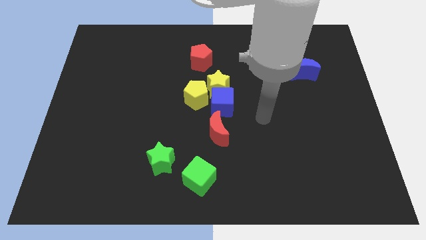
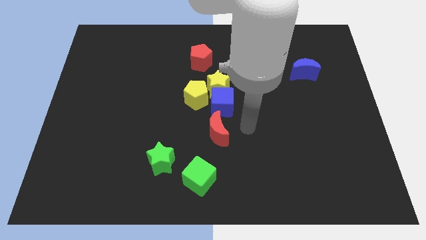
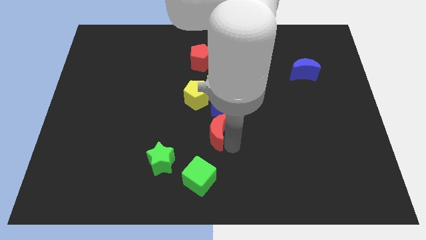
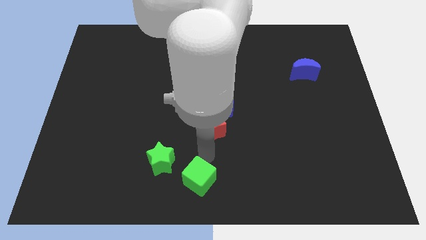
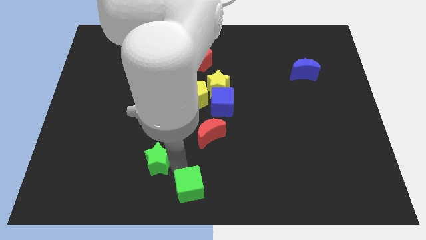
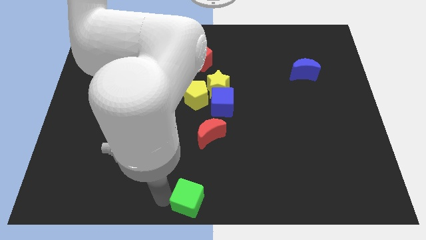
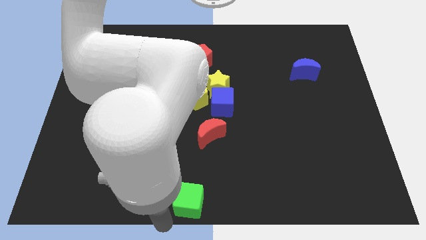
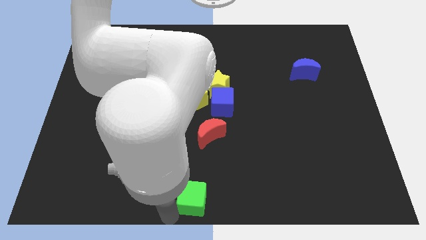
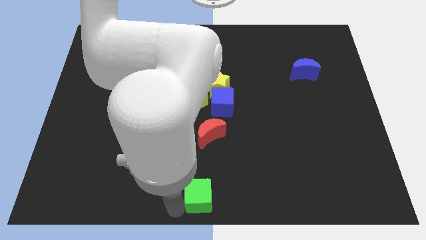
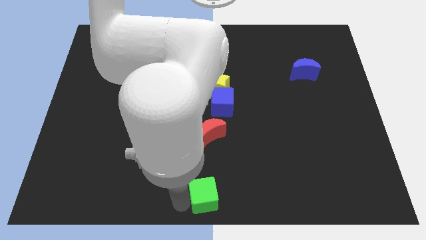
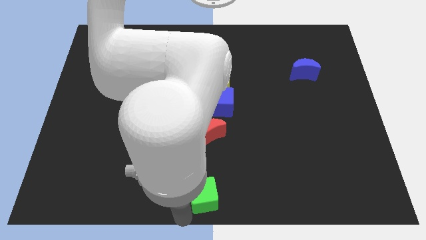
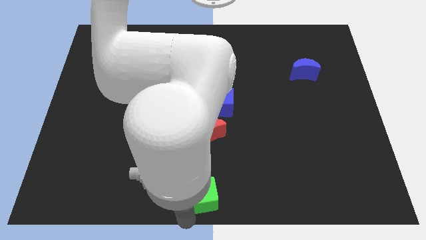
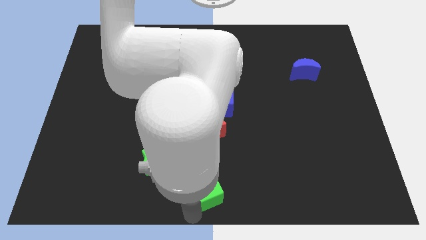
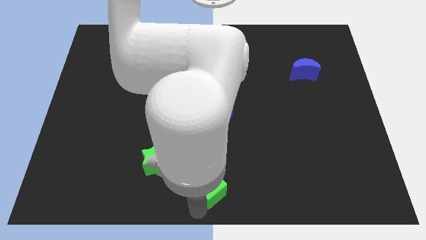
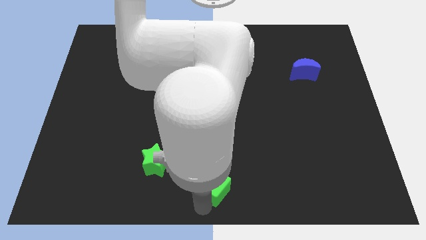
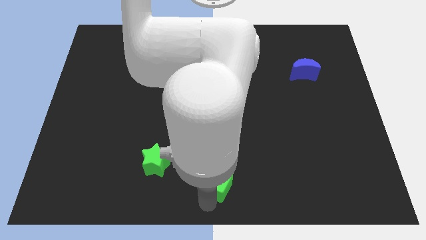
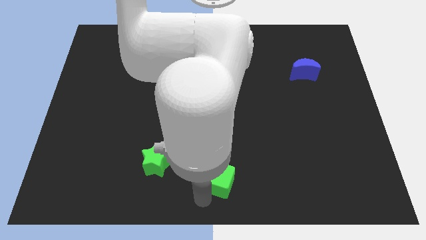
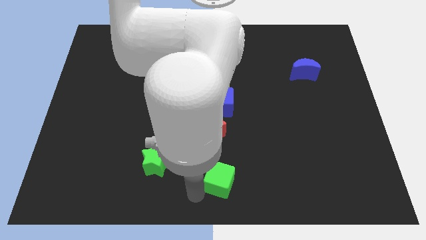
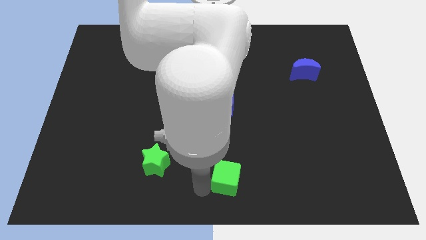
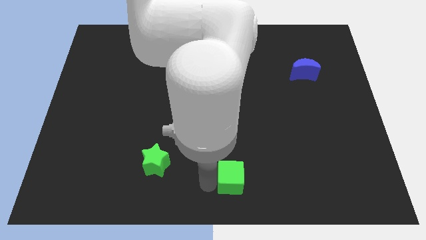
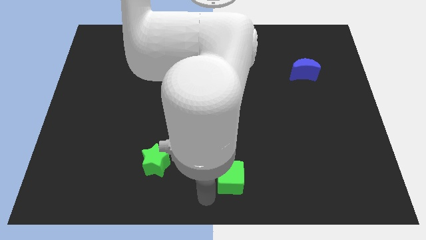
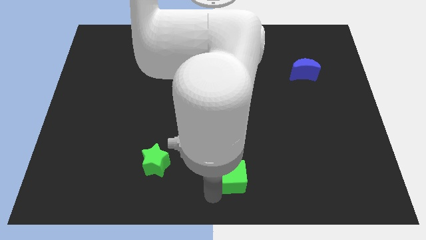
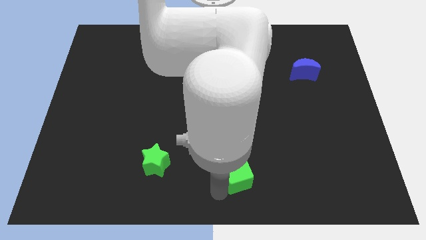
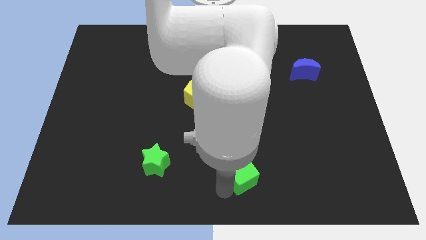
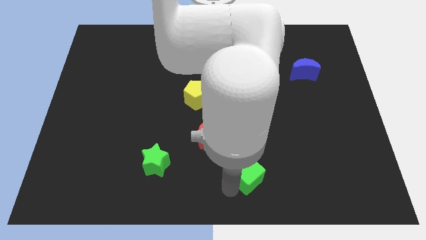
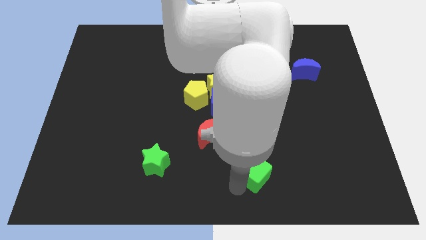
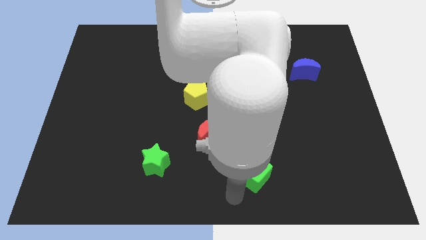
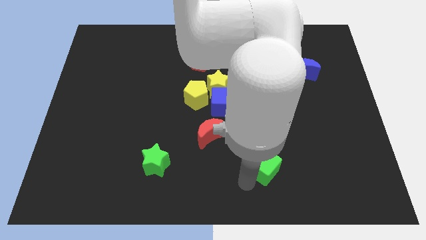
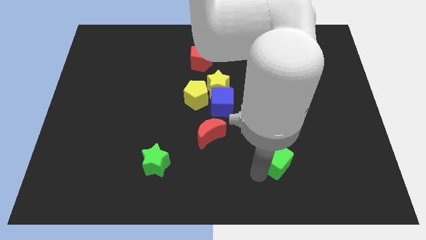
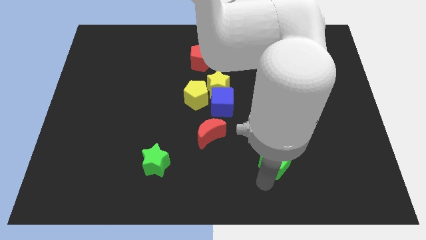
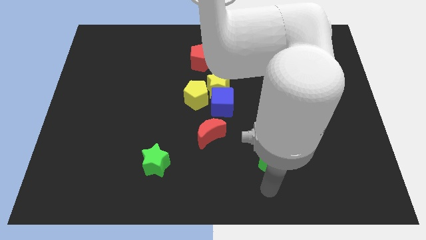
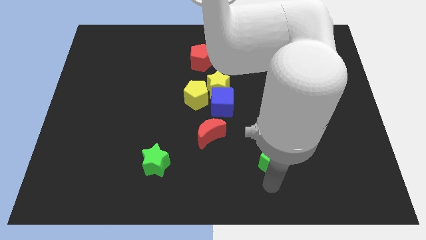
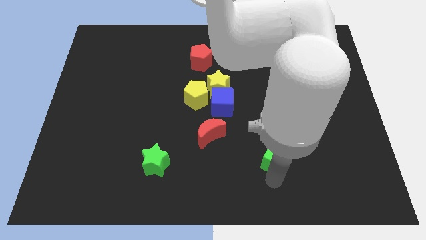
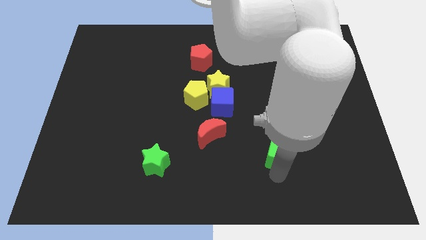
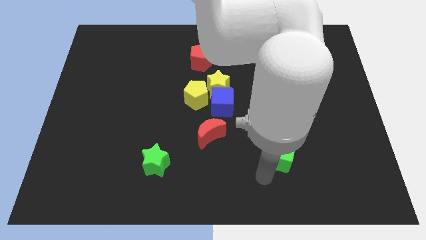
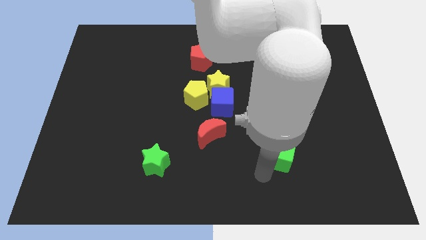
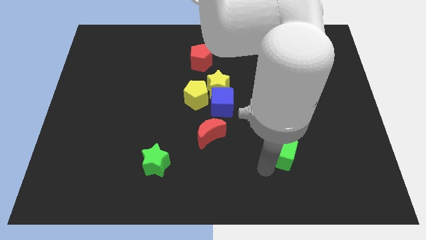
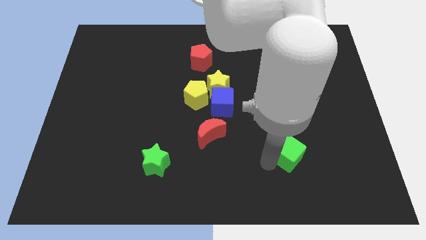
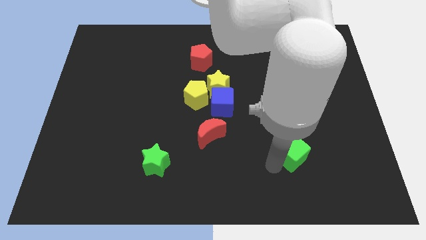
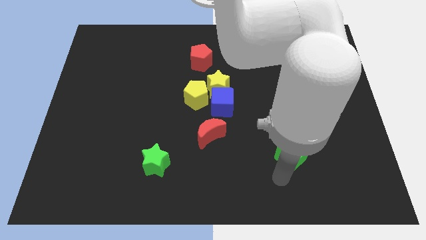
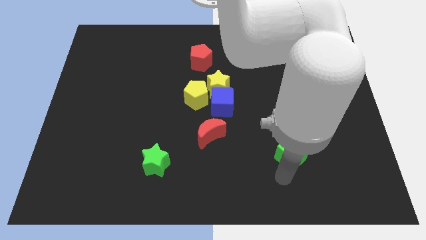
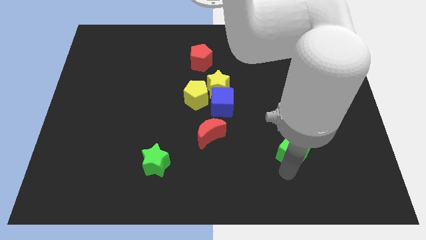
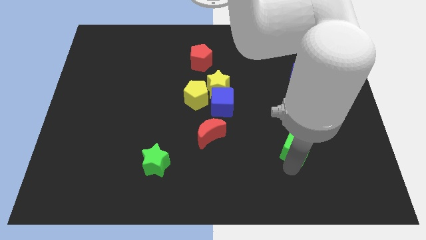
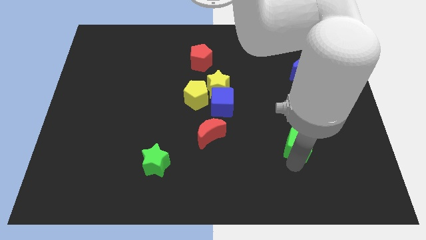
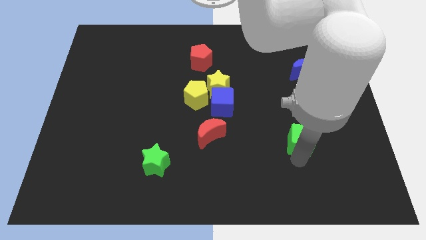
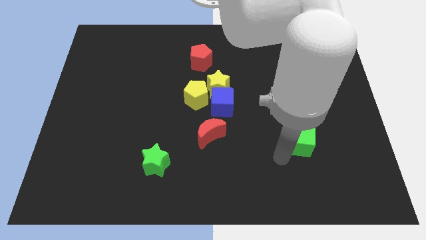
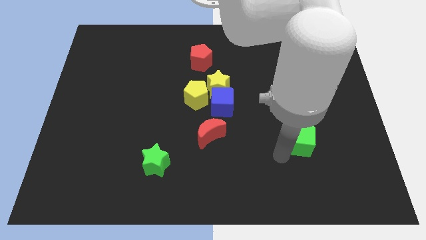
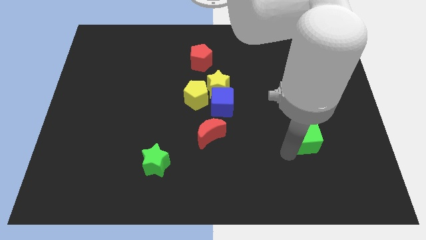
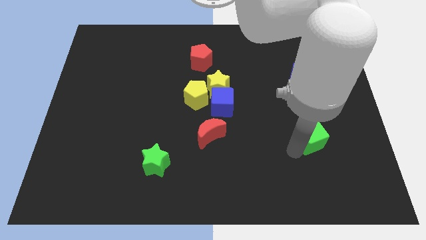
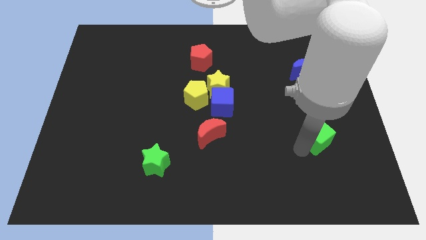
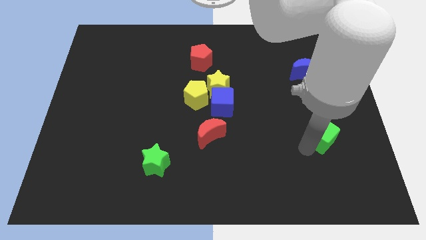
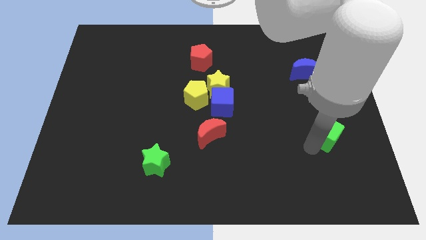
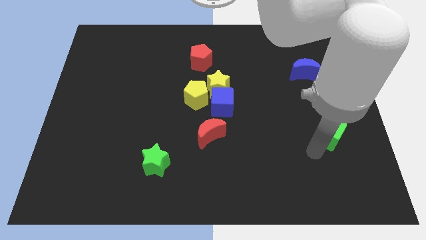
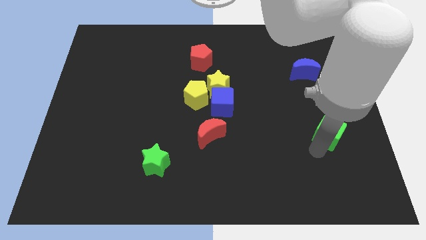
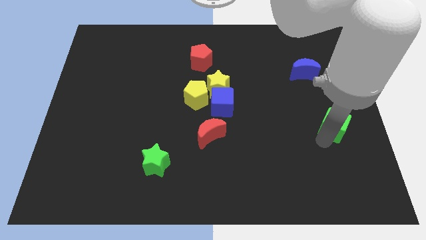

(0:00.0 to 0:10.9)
slide the green cube to the right side of the board
